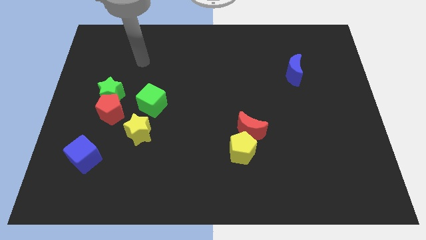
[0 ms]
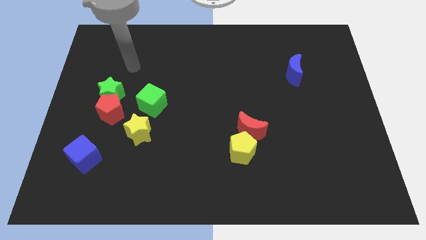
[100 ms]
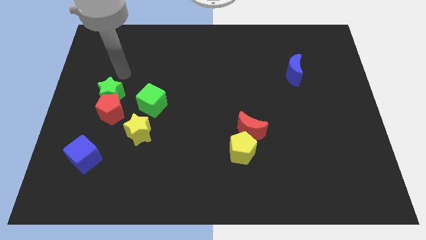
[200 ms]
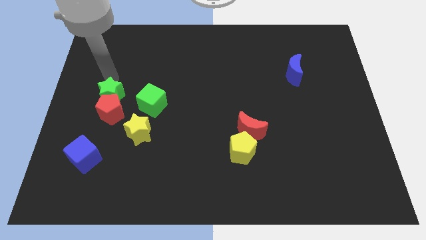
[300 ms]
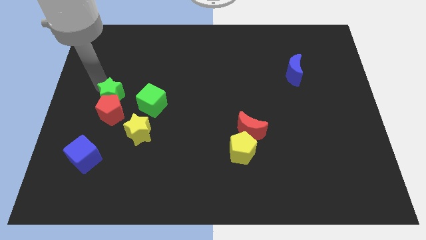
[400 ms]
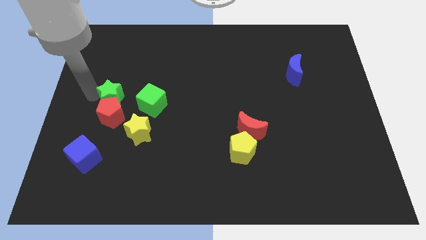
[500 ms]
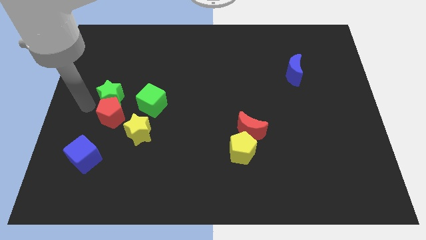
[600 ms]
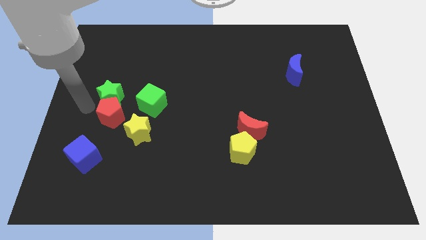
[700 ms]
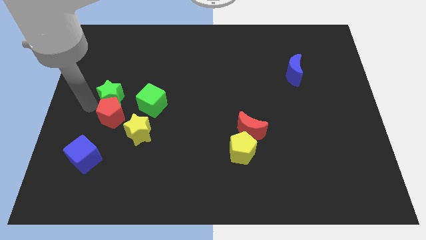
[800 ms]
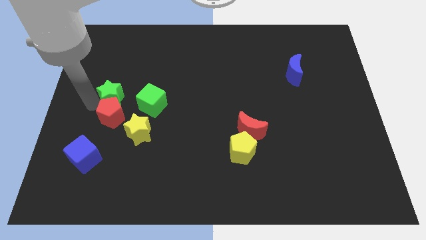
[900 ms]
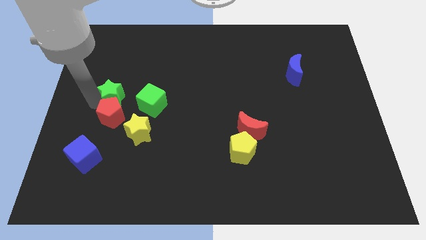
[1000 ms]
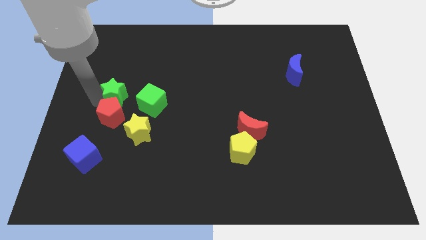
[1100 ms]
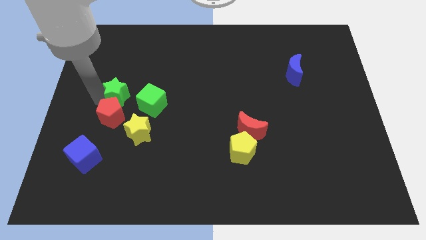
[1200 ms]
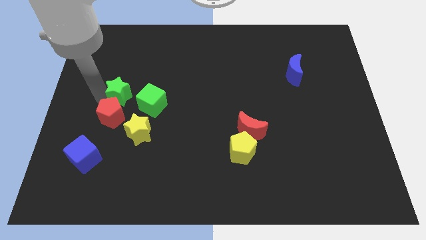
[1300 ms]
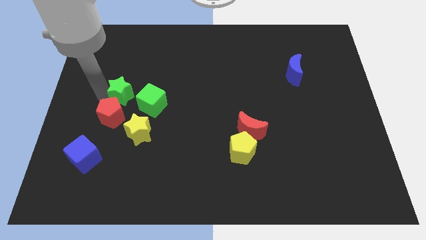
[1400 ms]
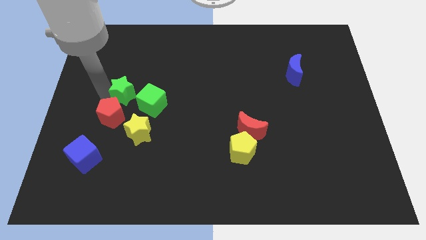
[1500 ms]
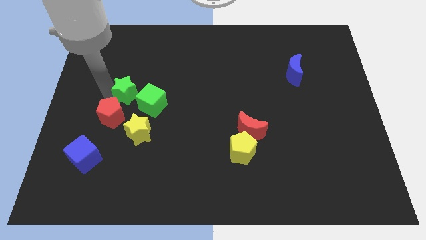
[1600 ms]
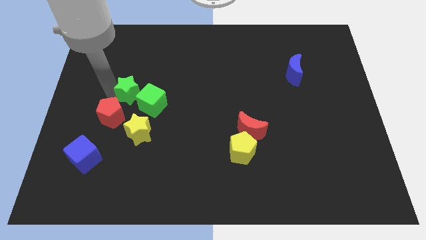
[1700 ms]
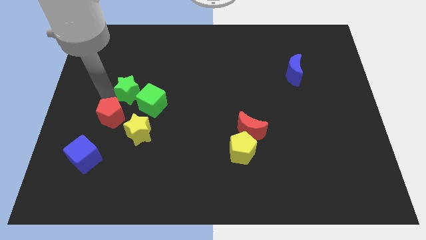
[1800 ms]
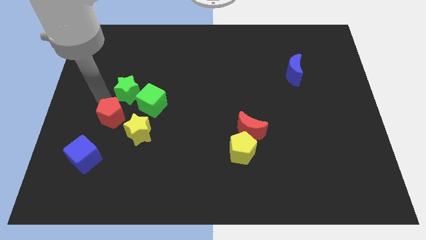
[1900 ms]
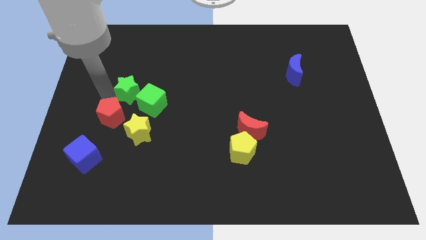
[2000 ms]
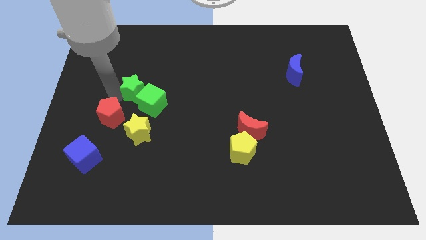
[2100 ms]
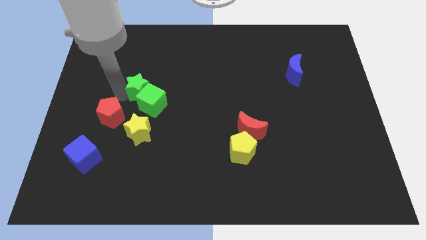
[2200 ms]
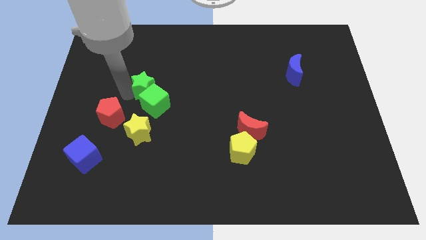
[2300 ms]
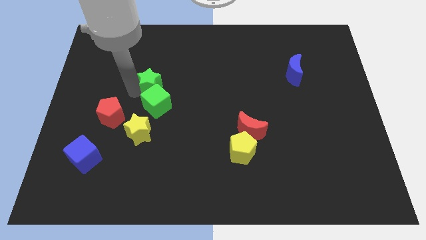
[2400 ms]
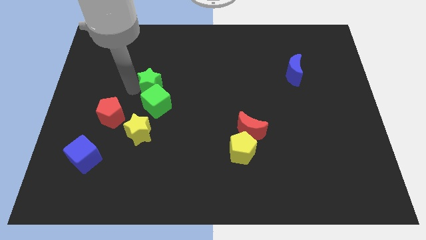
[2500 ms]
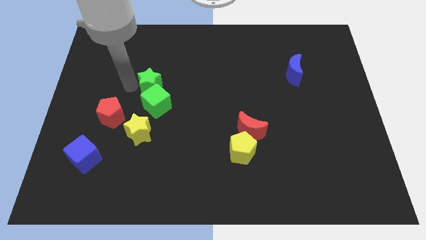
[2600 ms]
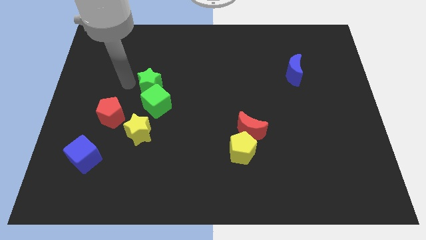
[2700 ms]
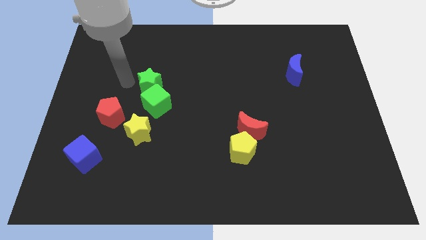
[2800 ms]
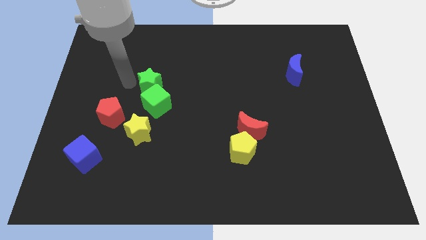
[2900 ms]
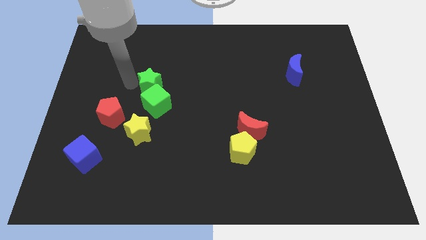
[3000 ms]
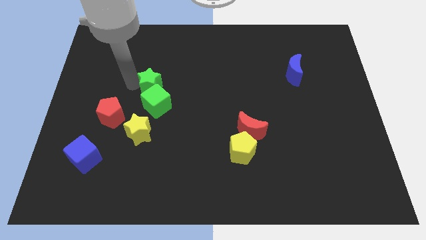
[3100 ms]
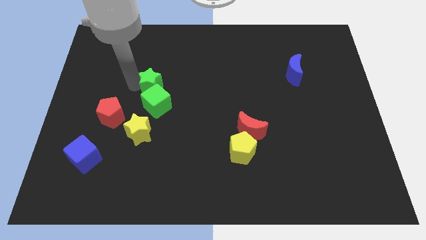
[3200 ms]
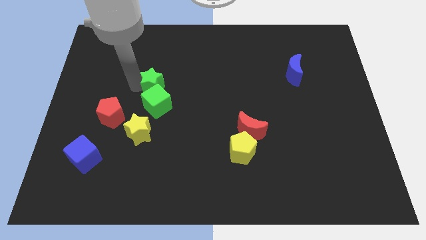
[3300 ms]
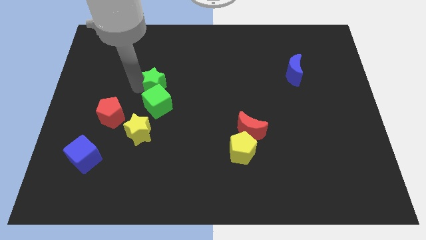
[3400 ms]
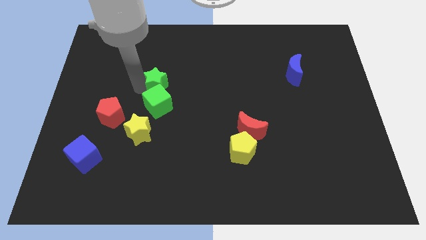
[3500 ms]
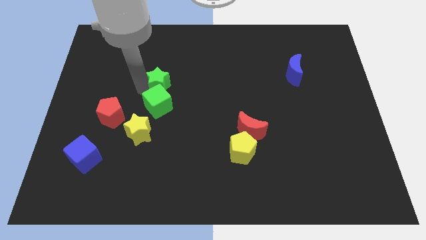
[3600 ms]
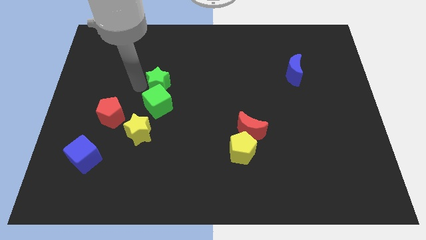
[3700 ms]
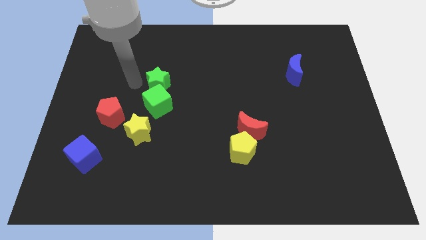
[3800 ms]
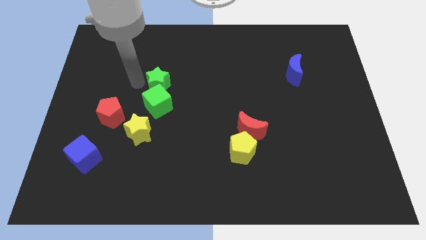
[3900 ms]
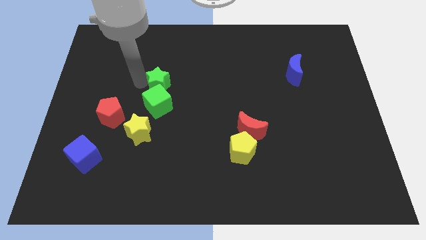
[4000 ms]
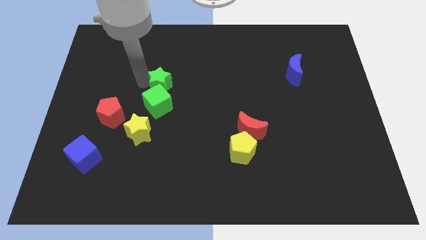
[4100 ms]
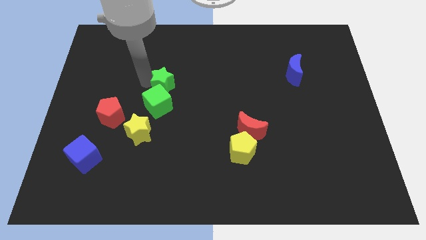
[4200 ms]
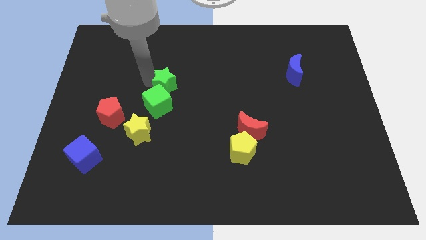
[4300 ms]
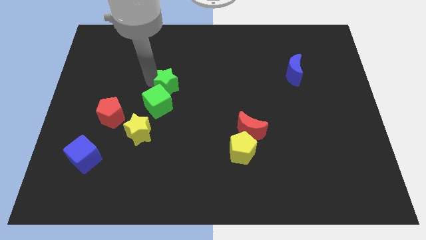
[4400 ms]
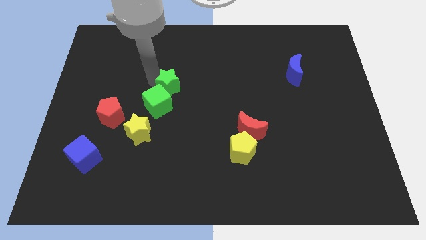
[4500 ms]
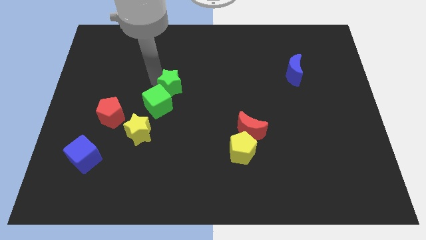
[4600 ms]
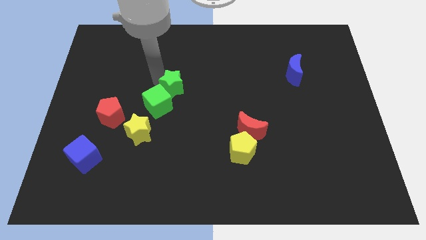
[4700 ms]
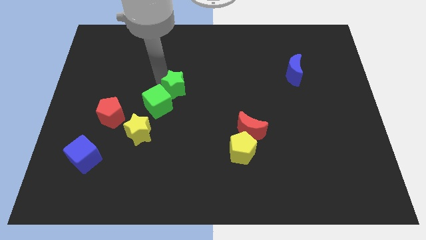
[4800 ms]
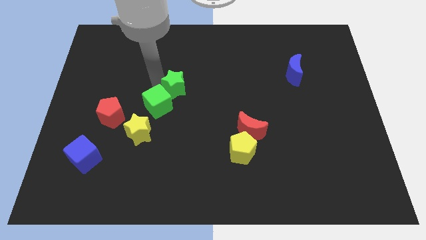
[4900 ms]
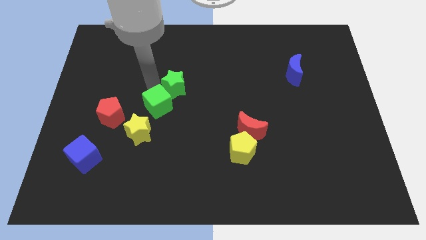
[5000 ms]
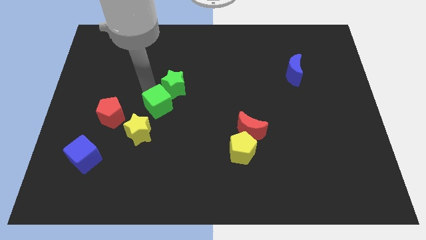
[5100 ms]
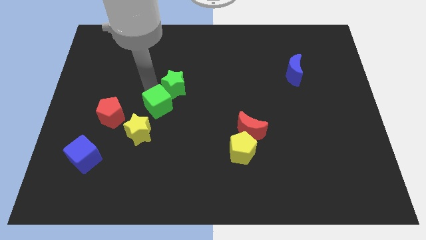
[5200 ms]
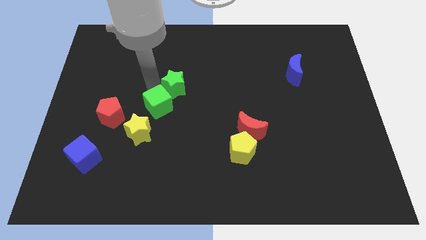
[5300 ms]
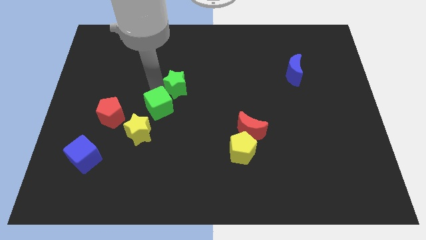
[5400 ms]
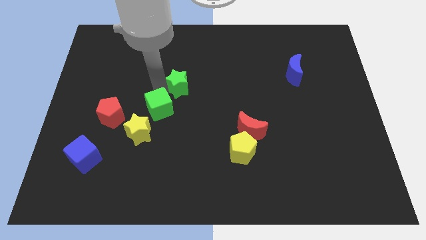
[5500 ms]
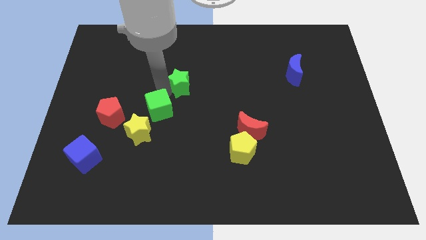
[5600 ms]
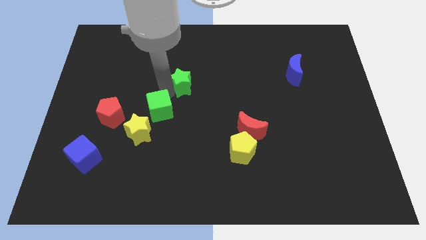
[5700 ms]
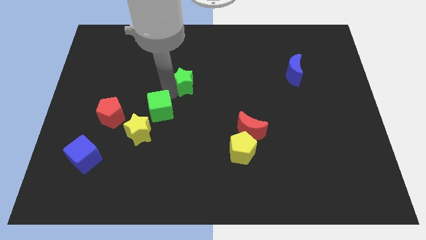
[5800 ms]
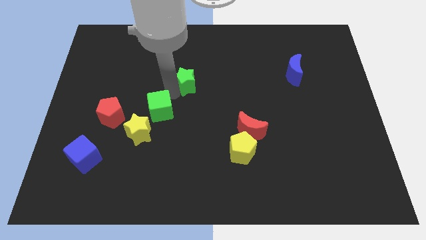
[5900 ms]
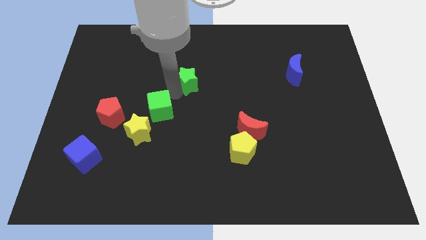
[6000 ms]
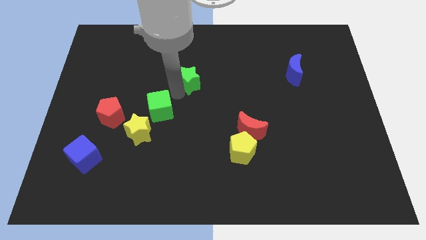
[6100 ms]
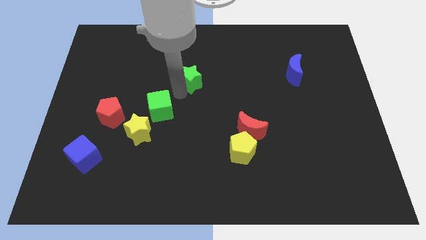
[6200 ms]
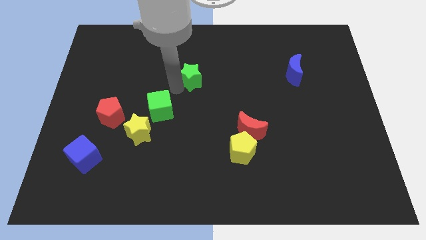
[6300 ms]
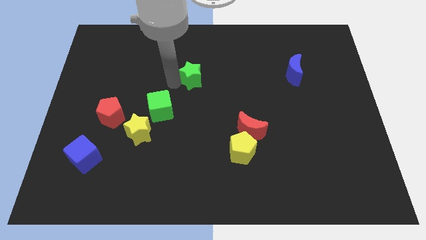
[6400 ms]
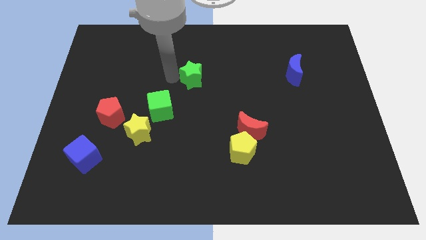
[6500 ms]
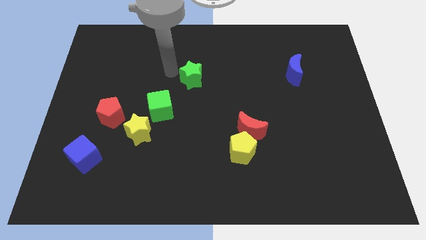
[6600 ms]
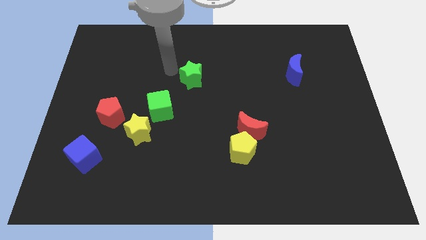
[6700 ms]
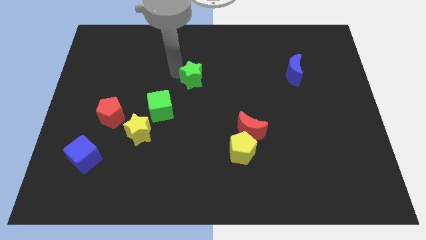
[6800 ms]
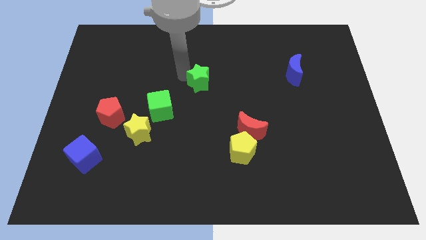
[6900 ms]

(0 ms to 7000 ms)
push the green star right

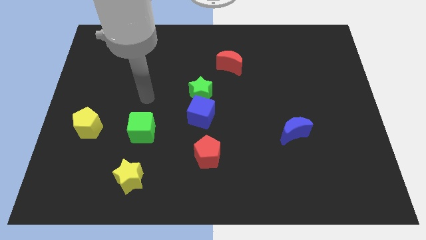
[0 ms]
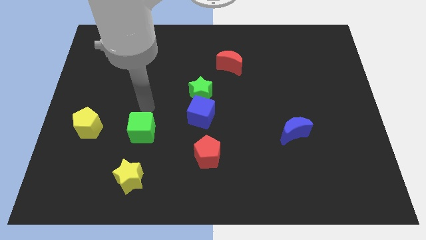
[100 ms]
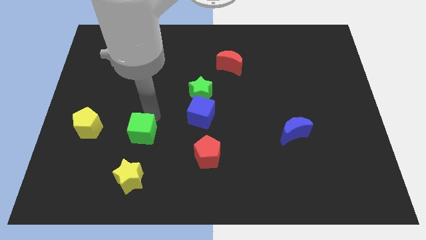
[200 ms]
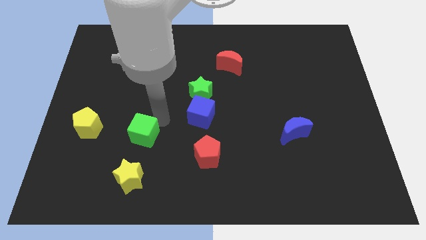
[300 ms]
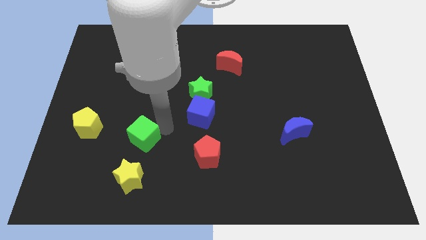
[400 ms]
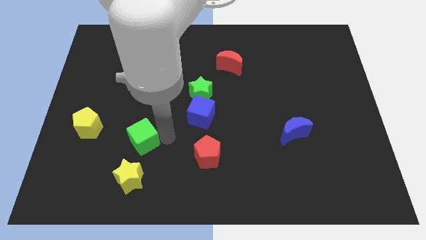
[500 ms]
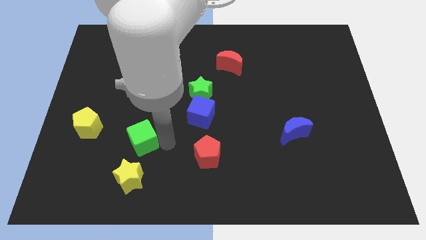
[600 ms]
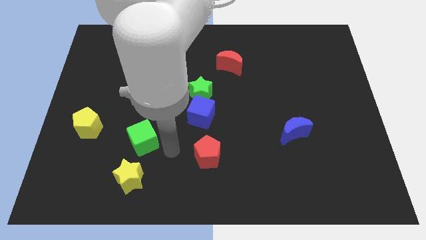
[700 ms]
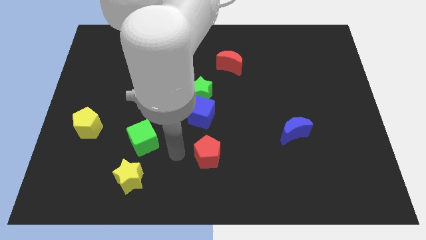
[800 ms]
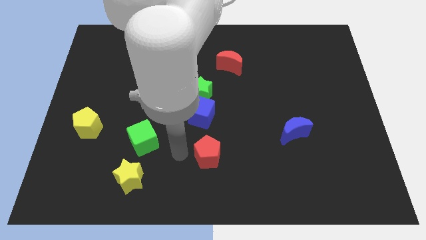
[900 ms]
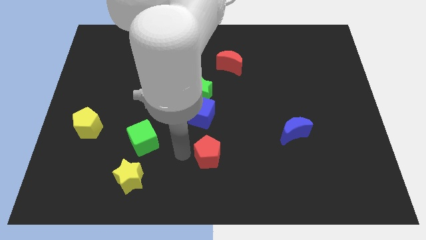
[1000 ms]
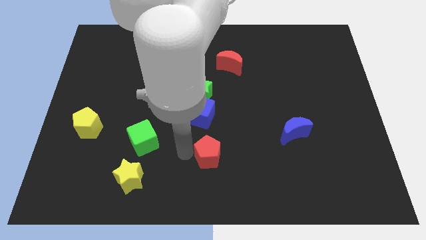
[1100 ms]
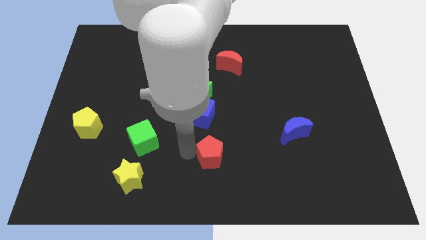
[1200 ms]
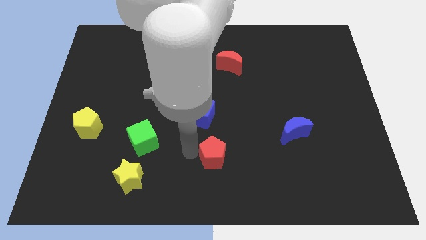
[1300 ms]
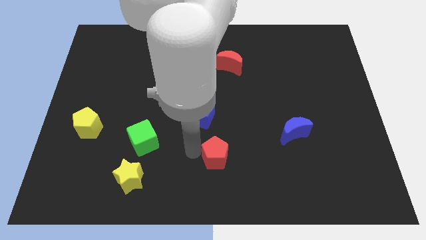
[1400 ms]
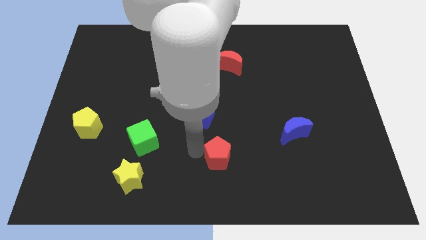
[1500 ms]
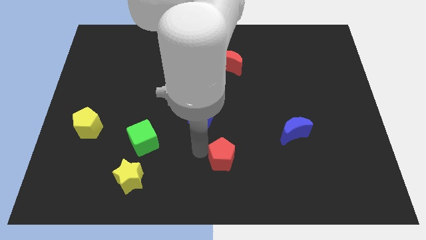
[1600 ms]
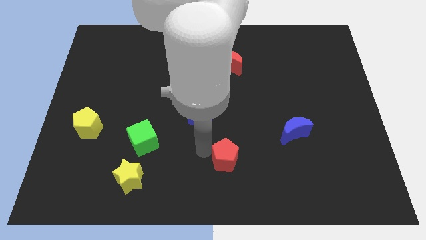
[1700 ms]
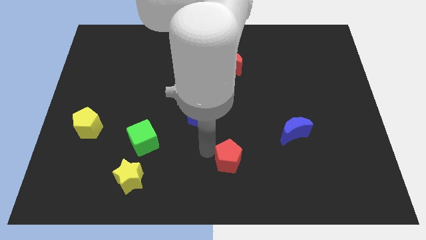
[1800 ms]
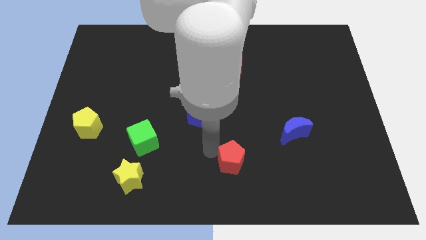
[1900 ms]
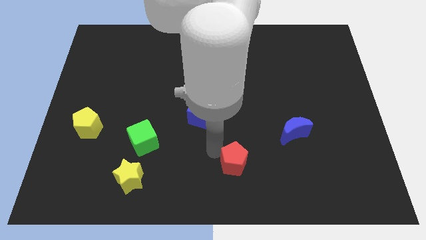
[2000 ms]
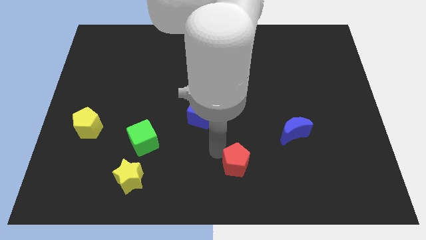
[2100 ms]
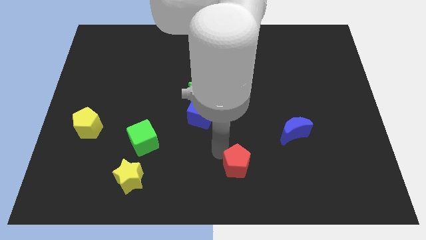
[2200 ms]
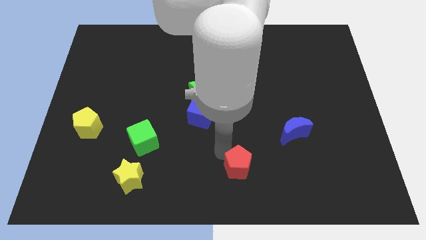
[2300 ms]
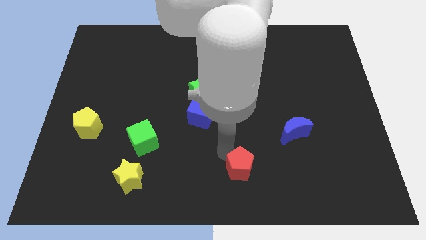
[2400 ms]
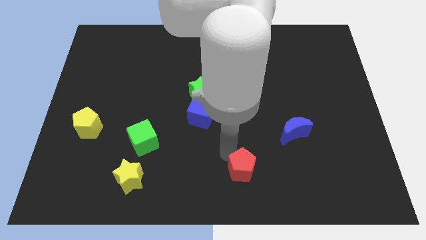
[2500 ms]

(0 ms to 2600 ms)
move the red pentagon to the right somewhat
